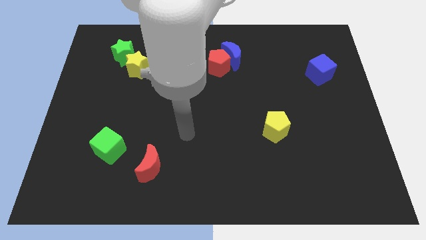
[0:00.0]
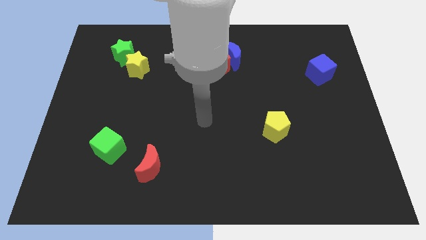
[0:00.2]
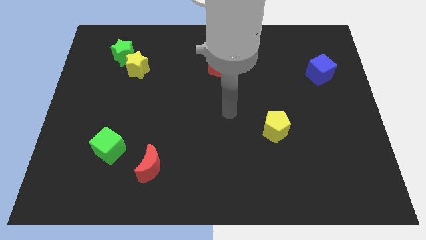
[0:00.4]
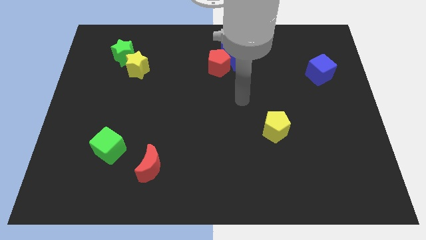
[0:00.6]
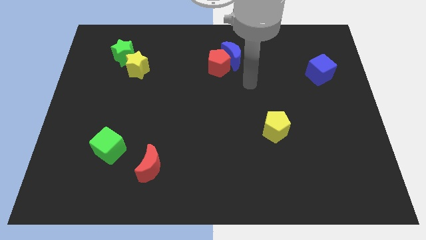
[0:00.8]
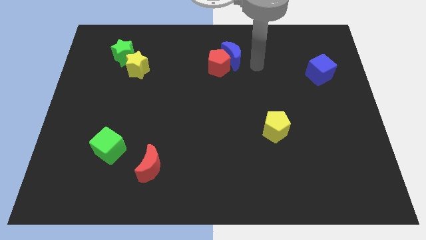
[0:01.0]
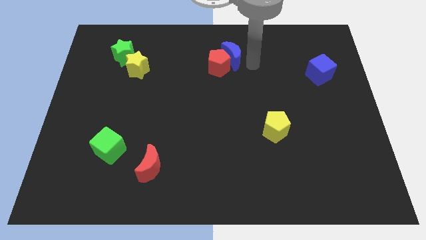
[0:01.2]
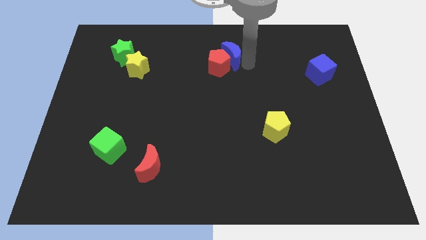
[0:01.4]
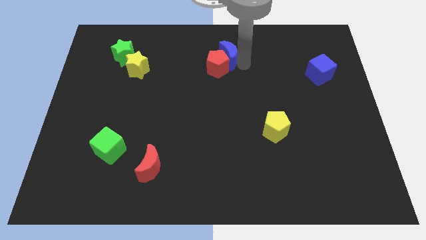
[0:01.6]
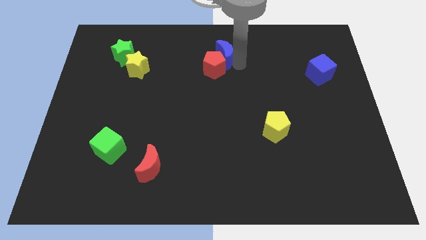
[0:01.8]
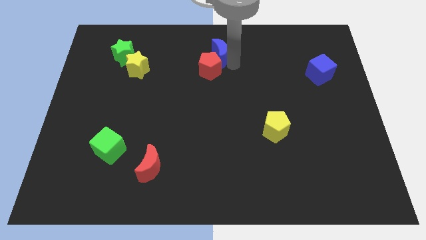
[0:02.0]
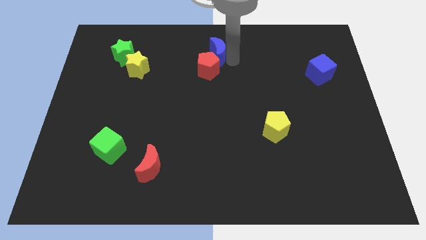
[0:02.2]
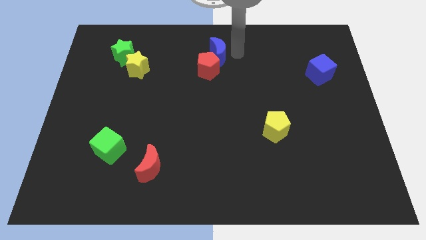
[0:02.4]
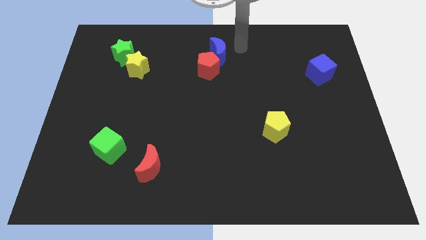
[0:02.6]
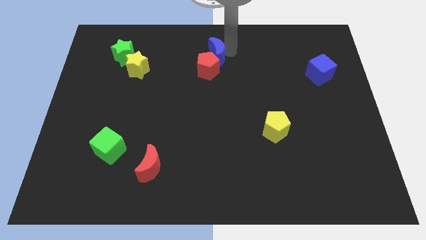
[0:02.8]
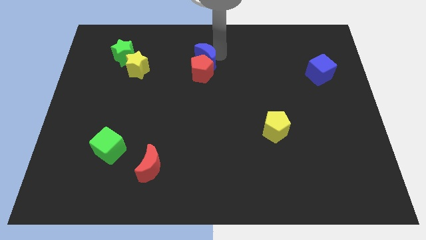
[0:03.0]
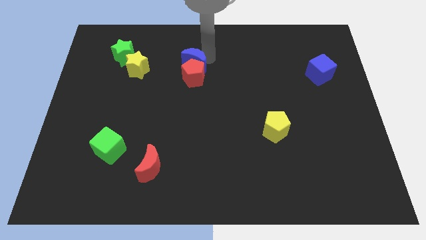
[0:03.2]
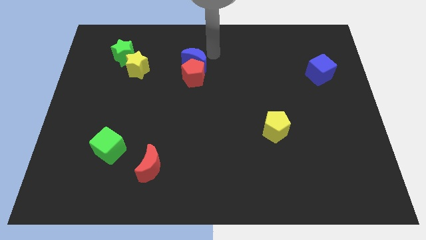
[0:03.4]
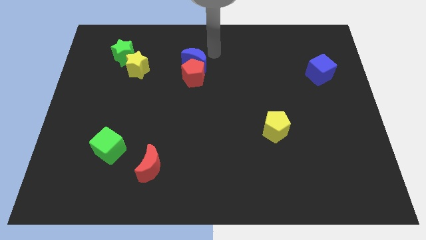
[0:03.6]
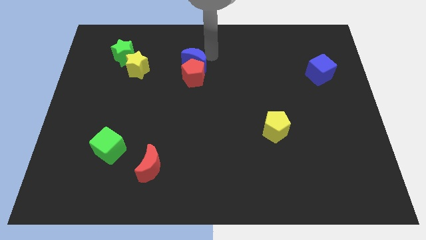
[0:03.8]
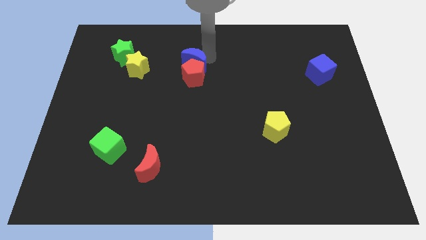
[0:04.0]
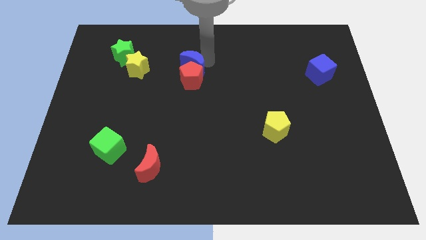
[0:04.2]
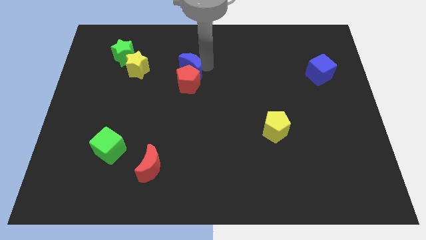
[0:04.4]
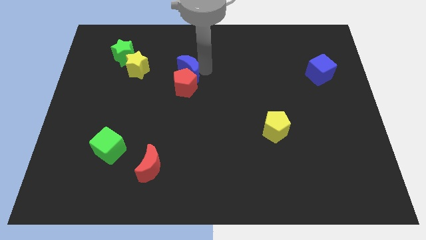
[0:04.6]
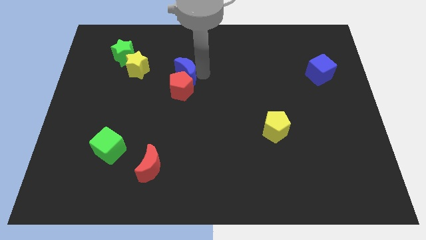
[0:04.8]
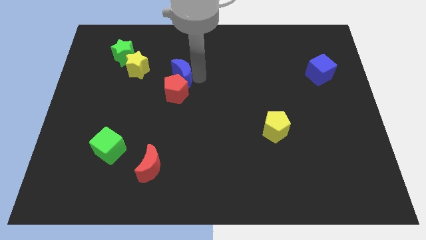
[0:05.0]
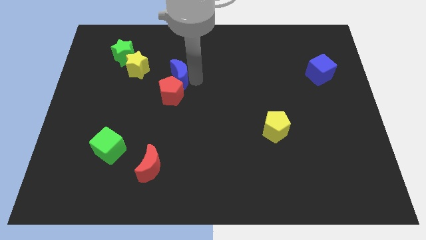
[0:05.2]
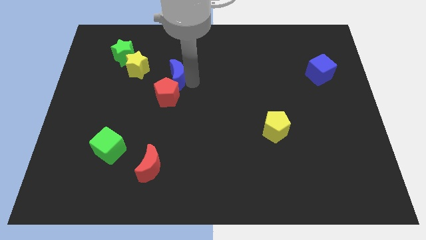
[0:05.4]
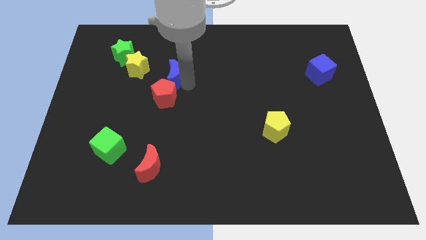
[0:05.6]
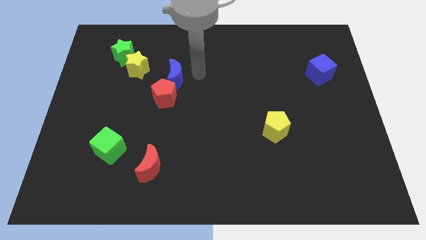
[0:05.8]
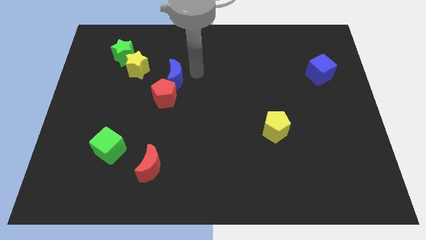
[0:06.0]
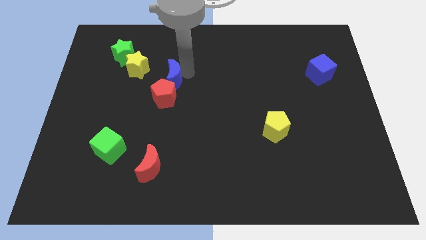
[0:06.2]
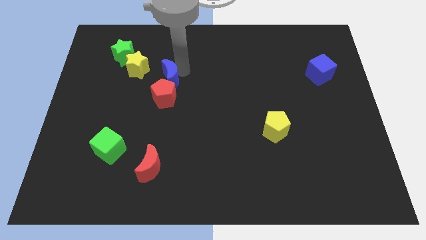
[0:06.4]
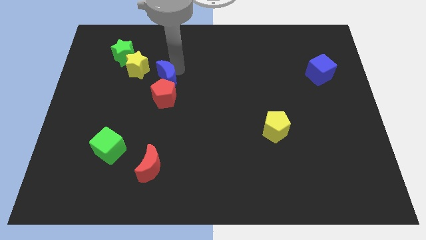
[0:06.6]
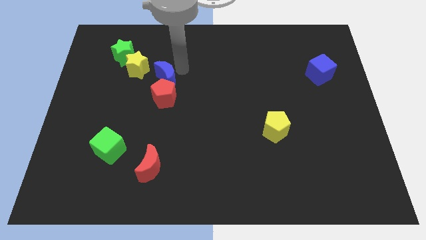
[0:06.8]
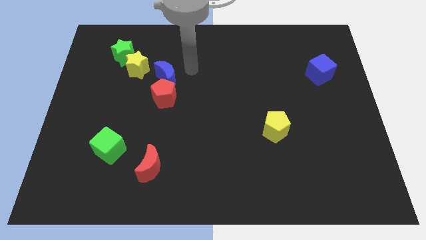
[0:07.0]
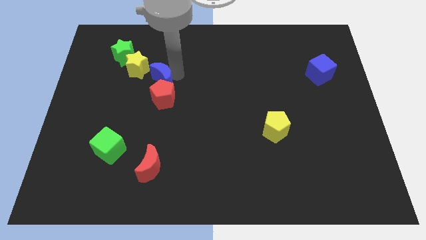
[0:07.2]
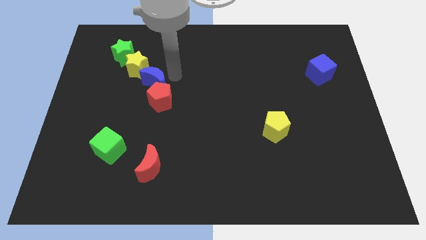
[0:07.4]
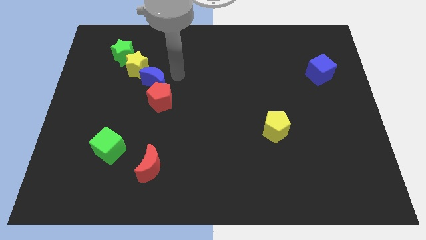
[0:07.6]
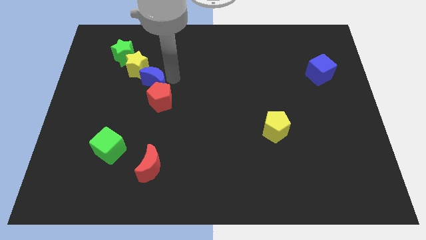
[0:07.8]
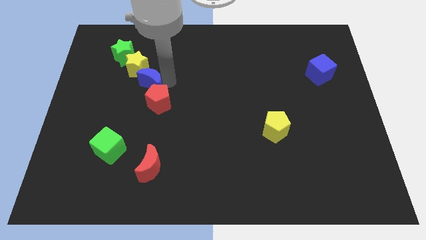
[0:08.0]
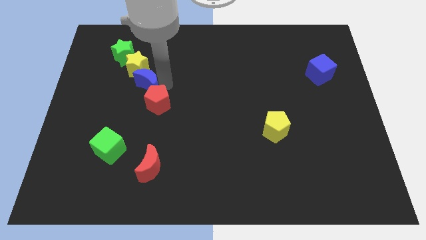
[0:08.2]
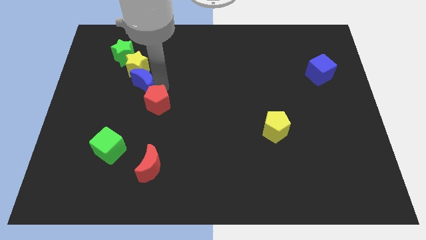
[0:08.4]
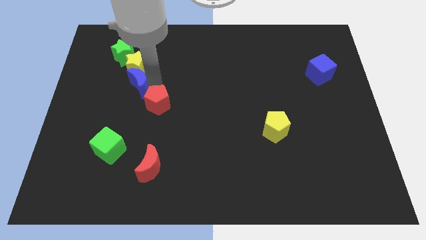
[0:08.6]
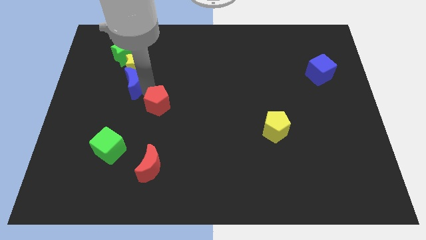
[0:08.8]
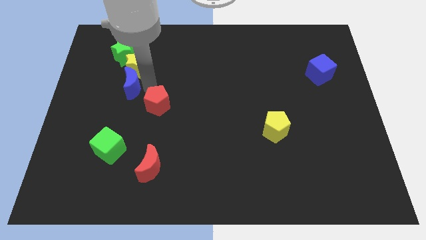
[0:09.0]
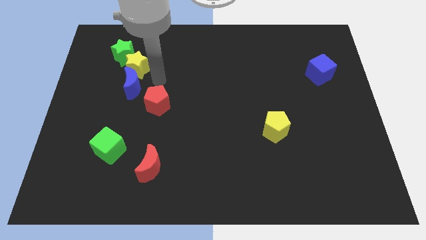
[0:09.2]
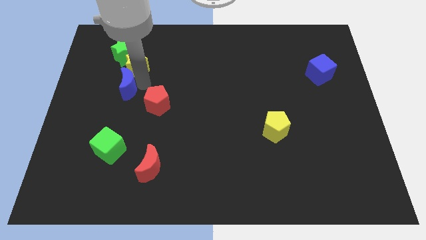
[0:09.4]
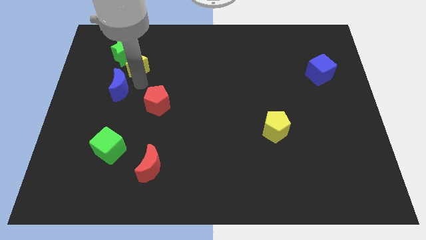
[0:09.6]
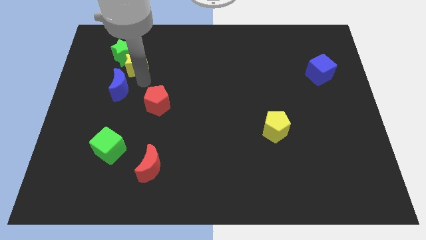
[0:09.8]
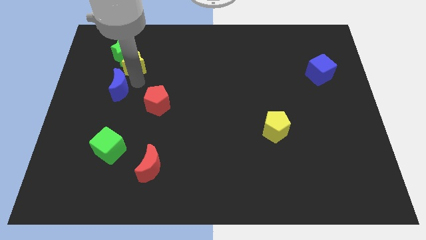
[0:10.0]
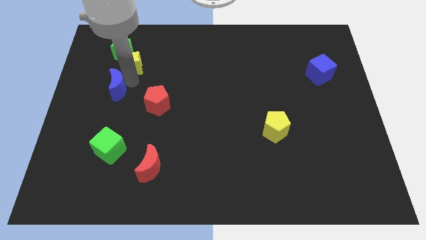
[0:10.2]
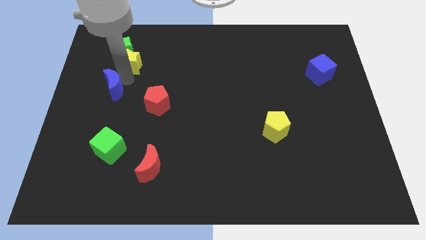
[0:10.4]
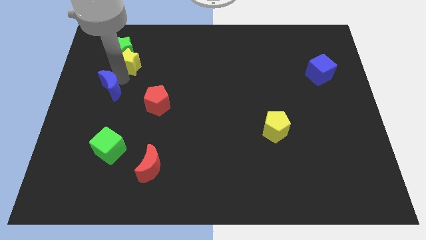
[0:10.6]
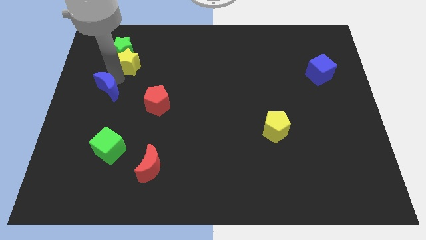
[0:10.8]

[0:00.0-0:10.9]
push the blue moon to the center left

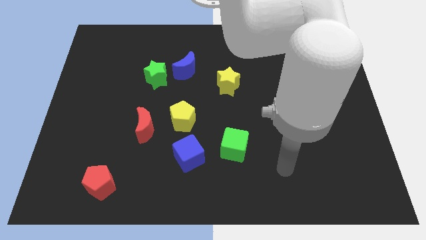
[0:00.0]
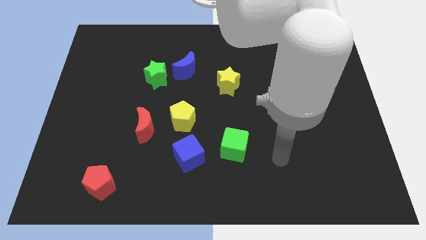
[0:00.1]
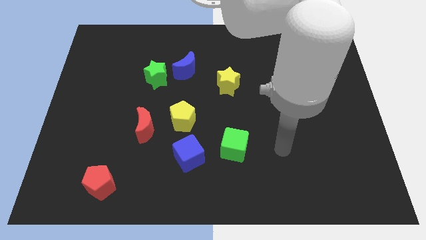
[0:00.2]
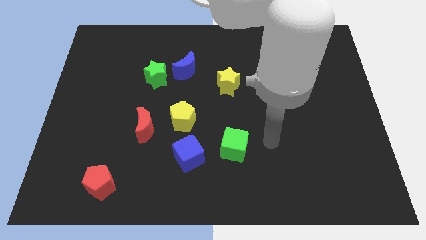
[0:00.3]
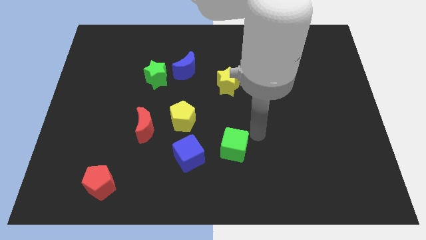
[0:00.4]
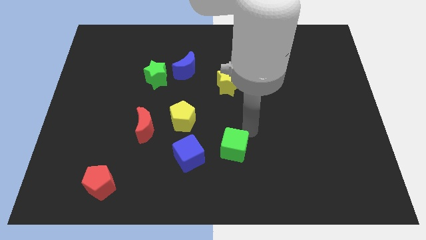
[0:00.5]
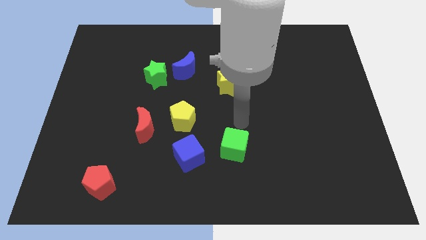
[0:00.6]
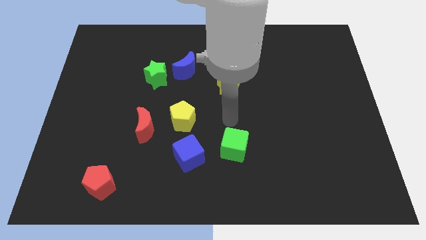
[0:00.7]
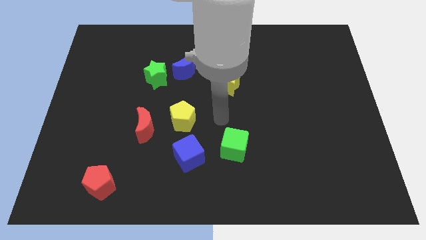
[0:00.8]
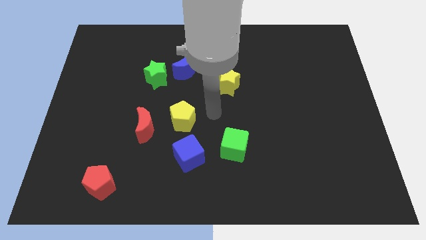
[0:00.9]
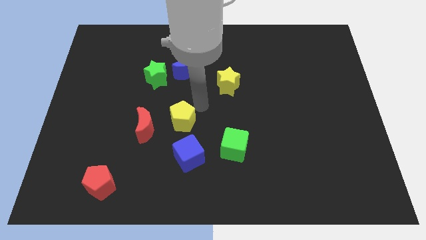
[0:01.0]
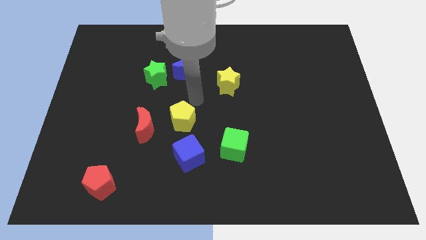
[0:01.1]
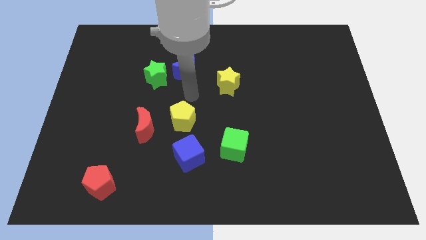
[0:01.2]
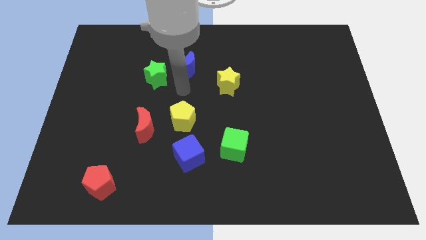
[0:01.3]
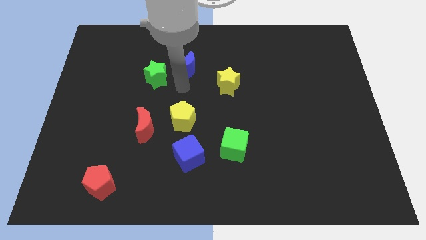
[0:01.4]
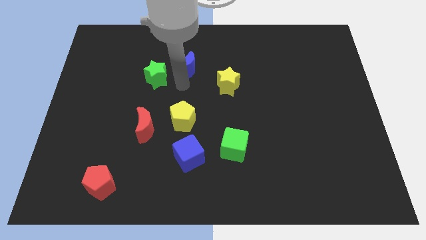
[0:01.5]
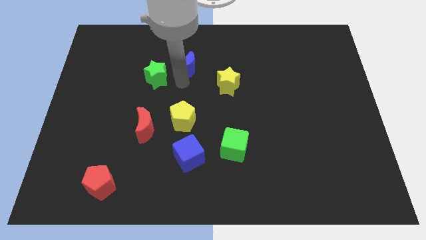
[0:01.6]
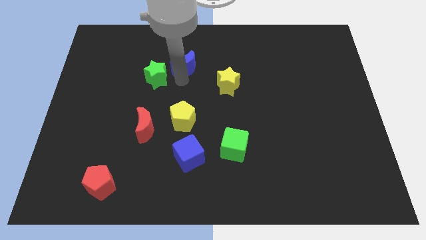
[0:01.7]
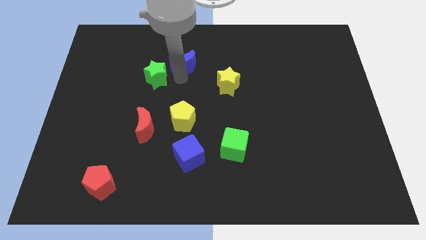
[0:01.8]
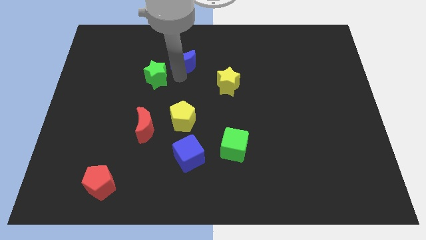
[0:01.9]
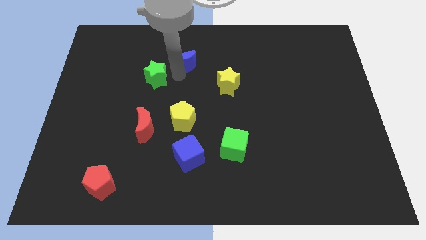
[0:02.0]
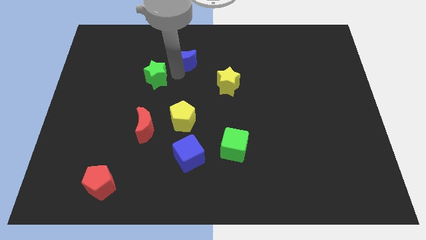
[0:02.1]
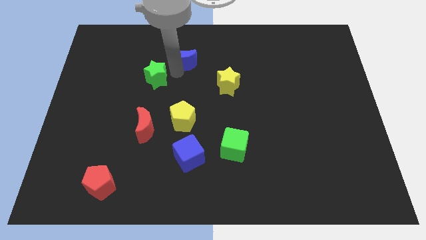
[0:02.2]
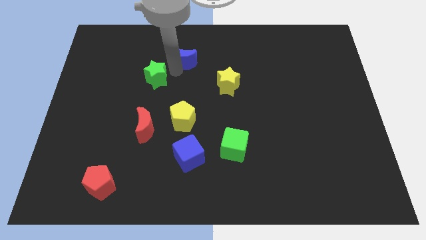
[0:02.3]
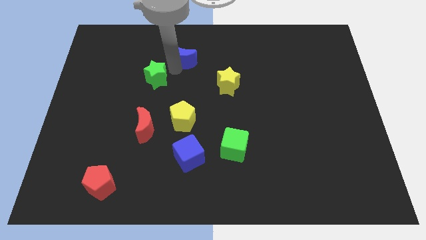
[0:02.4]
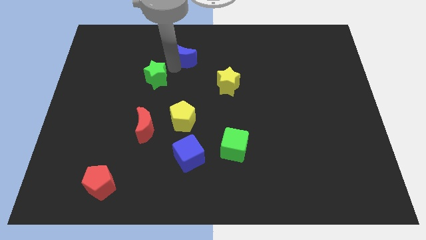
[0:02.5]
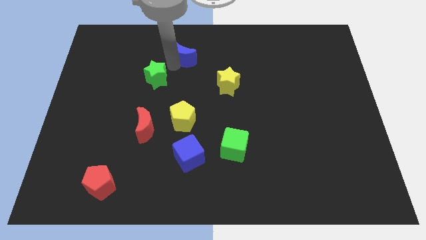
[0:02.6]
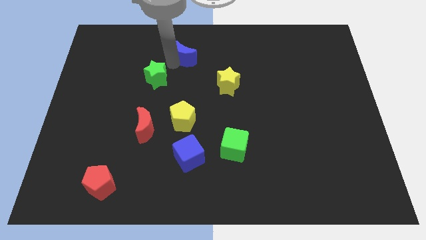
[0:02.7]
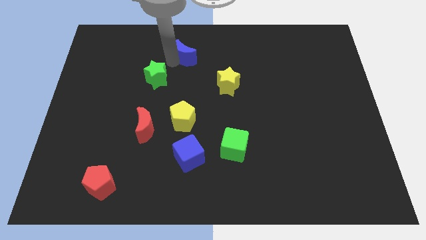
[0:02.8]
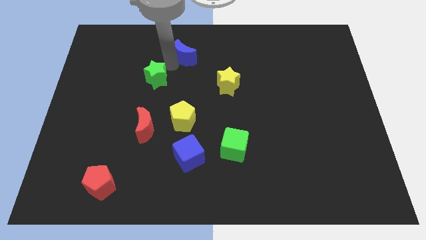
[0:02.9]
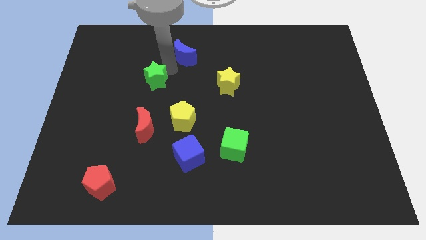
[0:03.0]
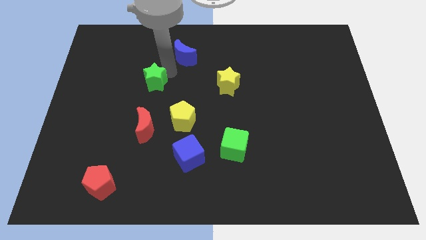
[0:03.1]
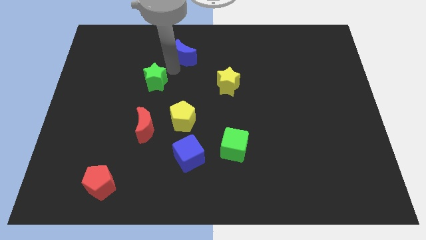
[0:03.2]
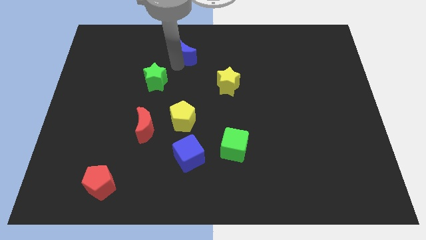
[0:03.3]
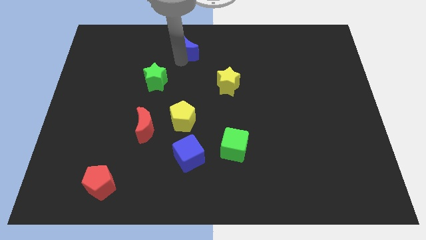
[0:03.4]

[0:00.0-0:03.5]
push the blue moon to the top side
